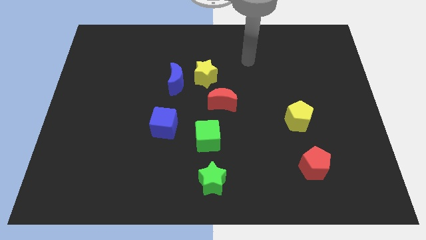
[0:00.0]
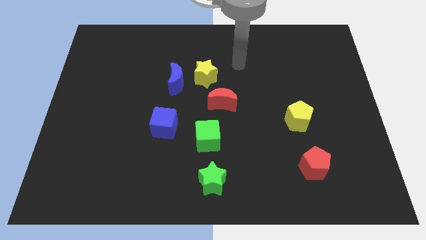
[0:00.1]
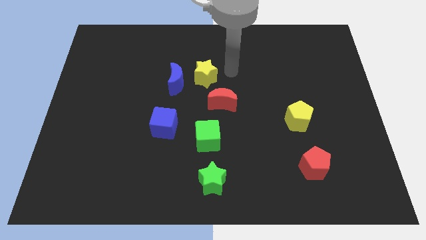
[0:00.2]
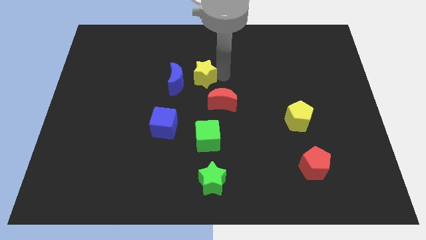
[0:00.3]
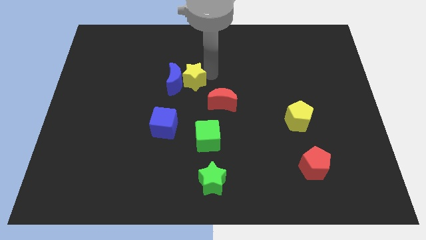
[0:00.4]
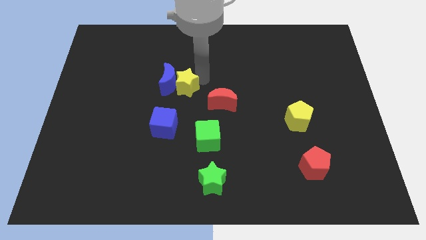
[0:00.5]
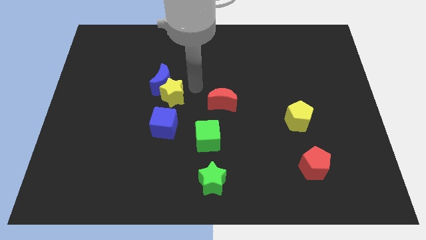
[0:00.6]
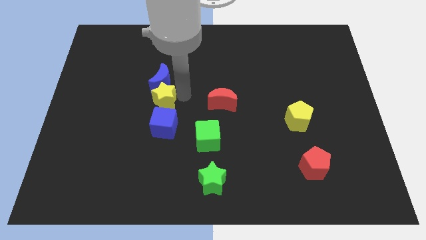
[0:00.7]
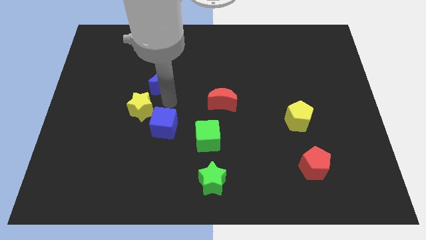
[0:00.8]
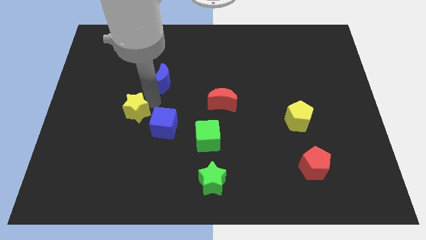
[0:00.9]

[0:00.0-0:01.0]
move the blue moon away from the yellow star

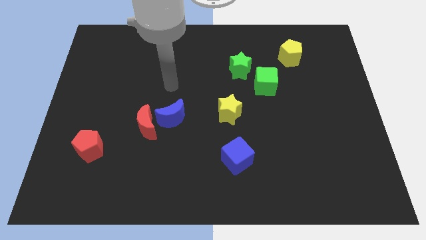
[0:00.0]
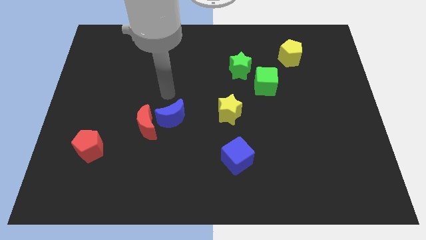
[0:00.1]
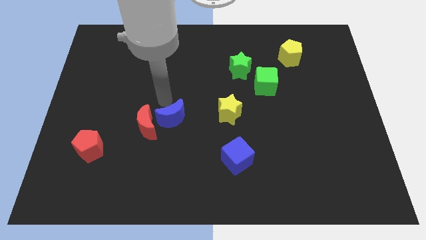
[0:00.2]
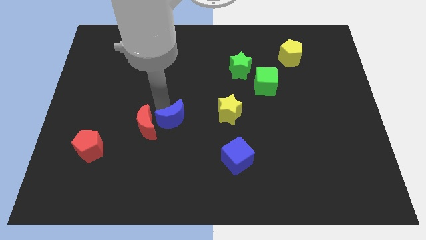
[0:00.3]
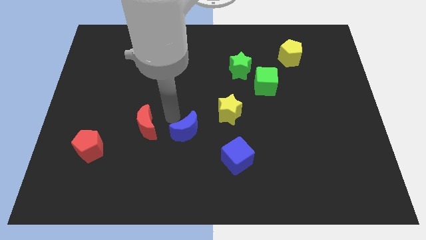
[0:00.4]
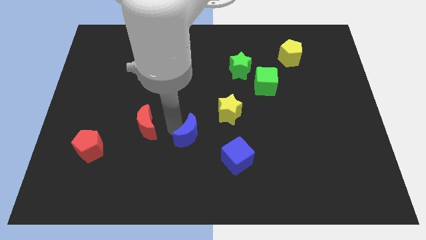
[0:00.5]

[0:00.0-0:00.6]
pull the red moon apart from the blue moon

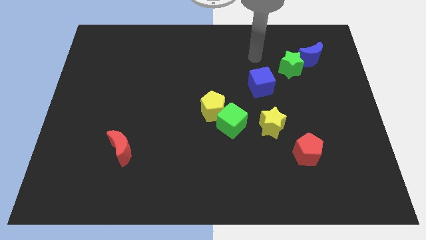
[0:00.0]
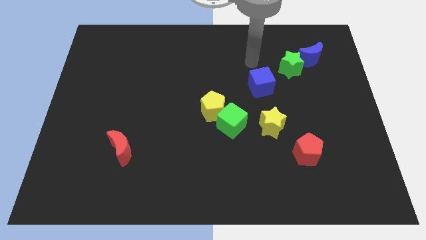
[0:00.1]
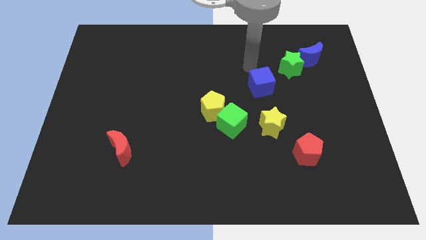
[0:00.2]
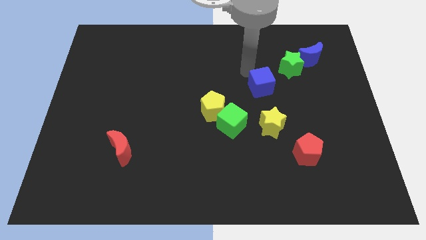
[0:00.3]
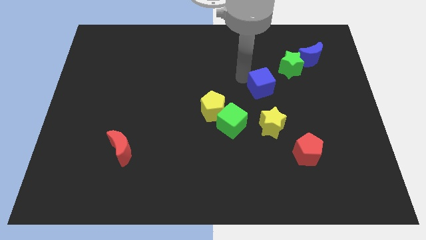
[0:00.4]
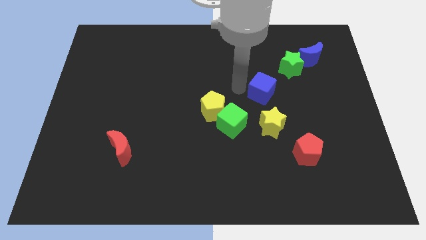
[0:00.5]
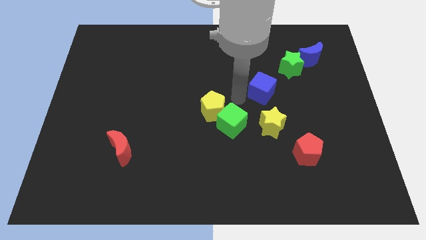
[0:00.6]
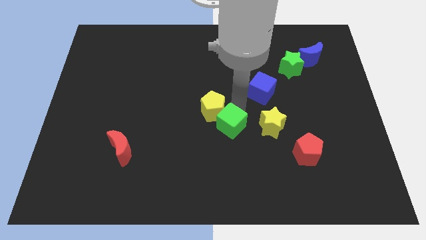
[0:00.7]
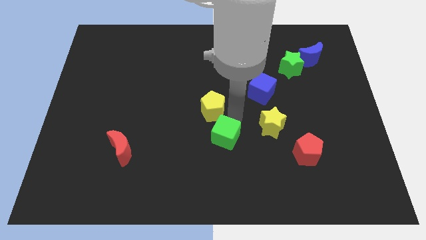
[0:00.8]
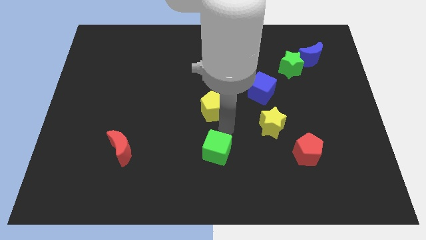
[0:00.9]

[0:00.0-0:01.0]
pull the yellow pentagon apart from the green cube

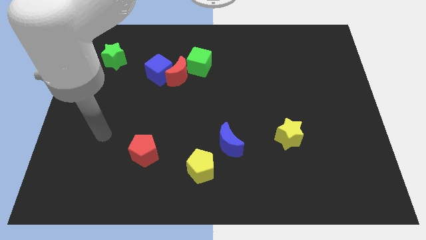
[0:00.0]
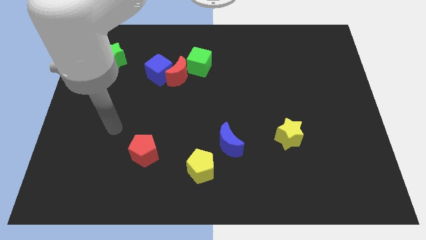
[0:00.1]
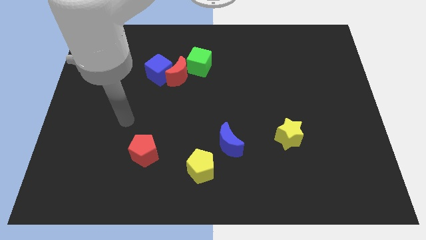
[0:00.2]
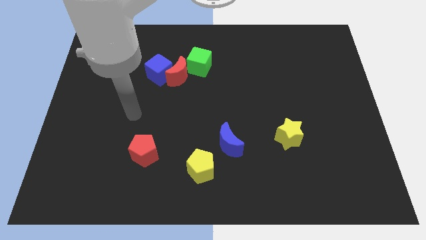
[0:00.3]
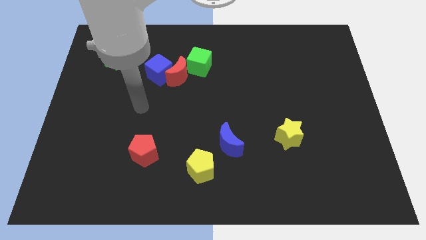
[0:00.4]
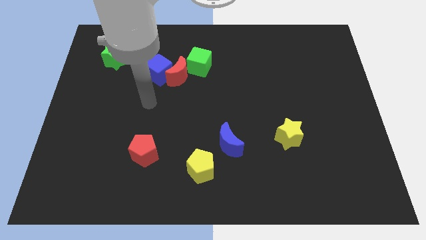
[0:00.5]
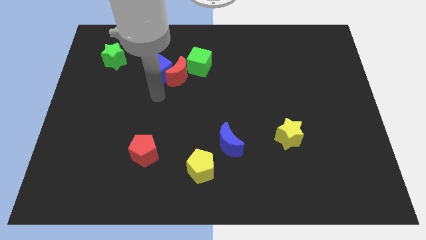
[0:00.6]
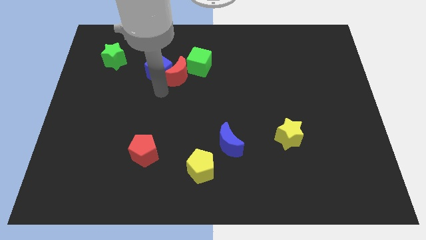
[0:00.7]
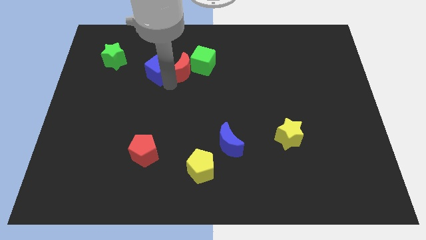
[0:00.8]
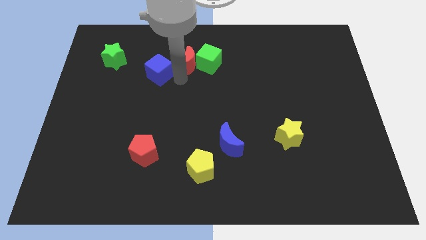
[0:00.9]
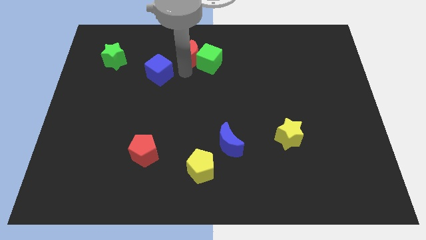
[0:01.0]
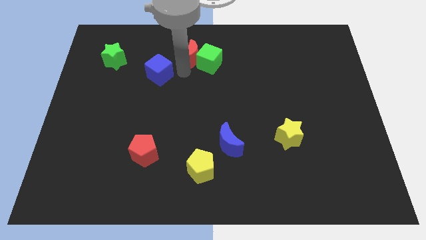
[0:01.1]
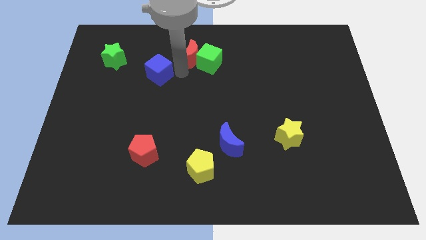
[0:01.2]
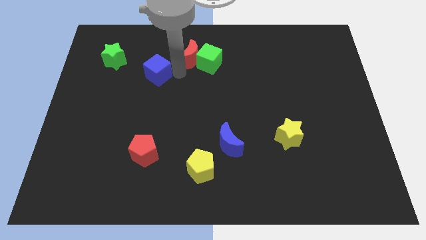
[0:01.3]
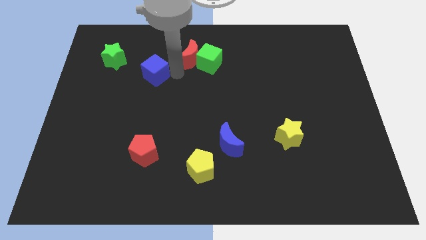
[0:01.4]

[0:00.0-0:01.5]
separate the blue cube from the red moon

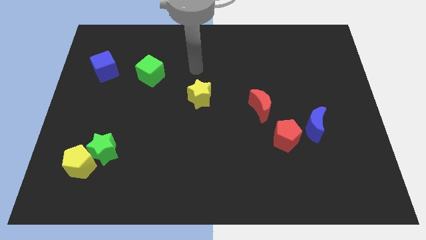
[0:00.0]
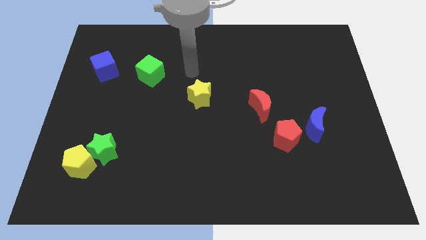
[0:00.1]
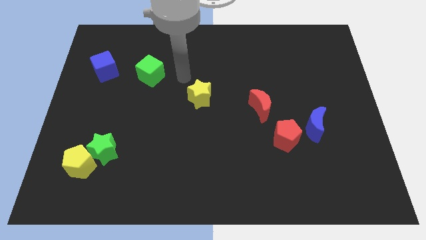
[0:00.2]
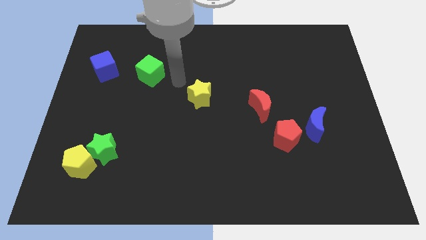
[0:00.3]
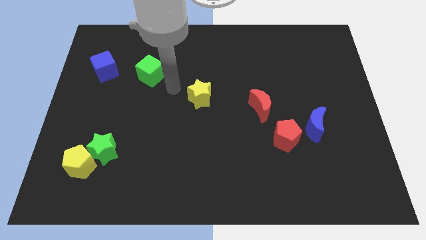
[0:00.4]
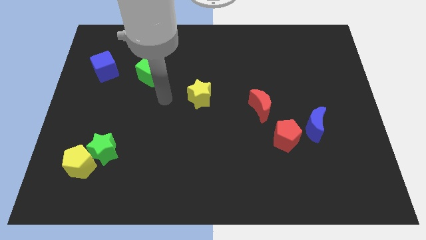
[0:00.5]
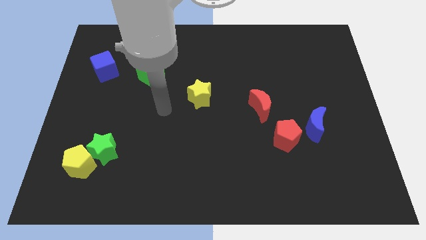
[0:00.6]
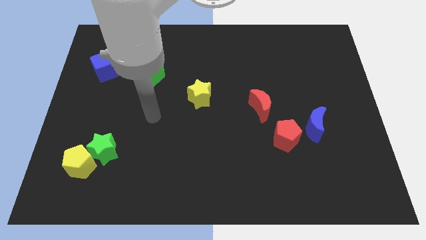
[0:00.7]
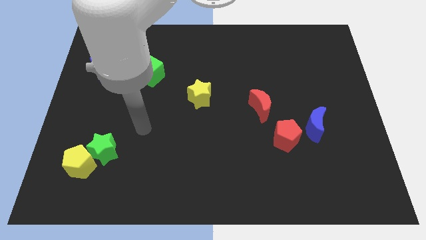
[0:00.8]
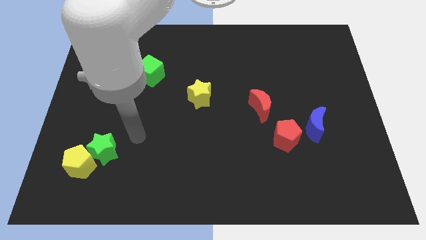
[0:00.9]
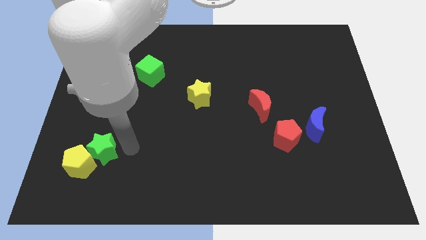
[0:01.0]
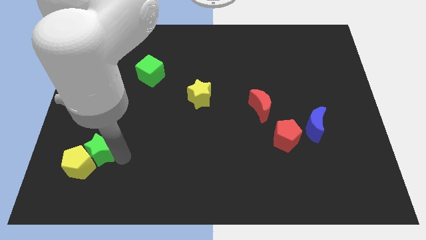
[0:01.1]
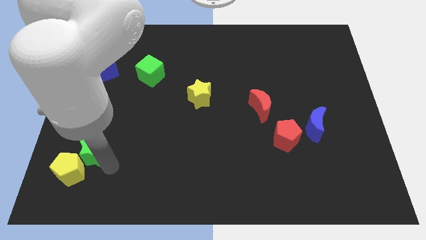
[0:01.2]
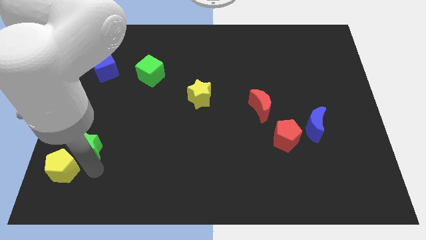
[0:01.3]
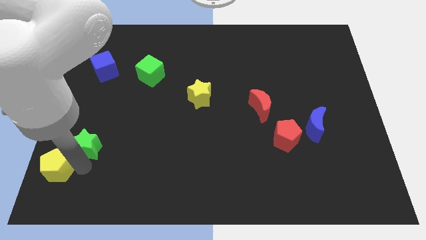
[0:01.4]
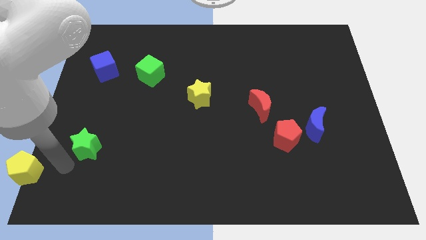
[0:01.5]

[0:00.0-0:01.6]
pull the green star apart from the yellow pentagon

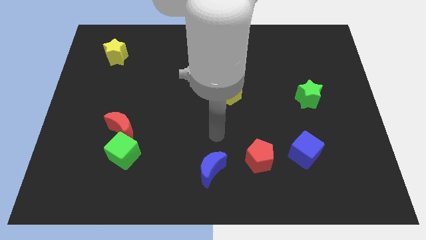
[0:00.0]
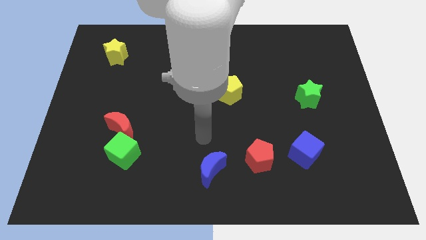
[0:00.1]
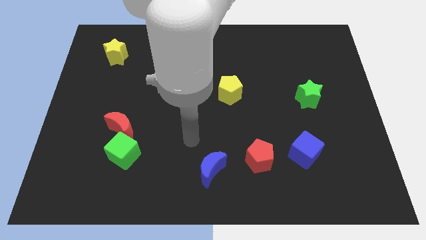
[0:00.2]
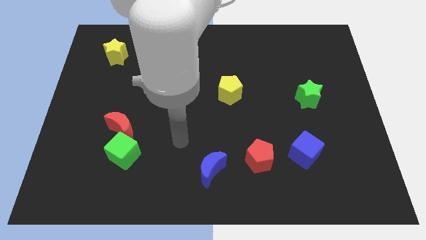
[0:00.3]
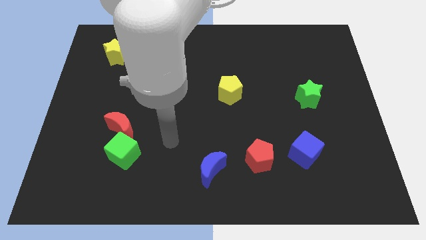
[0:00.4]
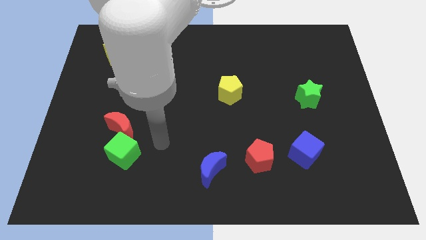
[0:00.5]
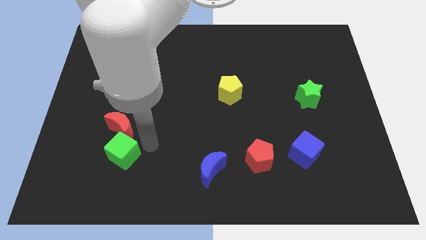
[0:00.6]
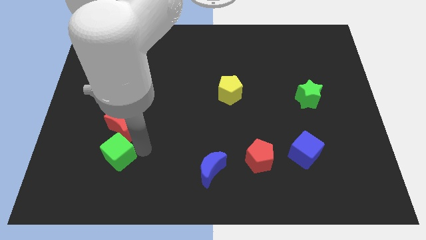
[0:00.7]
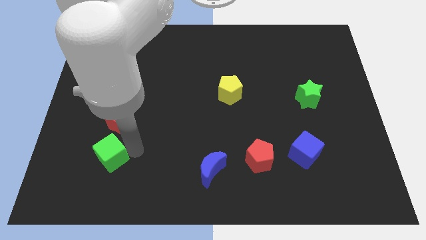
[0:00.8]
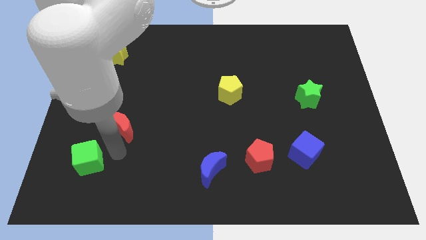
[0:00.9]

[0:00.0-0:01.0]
pull the red moon apart from the green cube

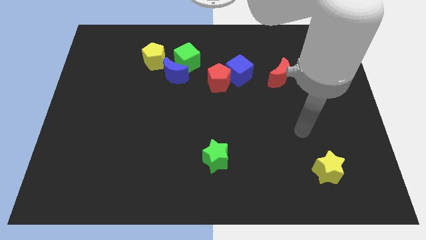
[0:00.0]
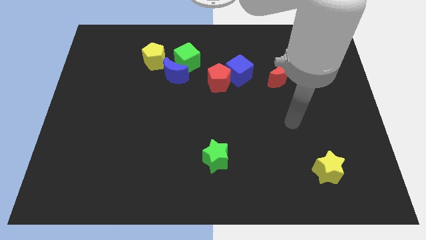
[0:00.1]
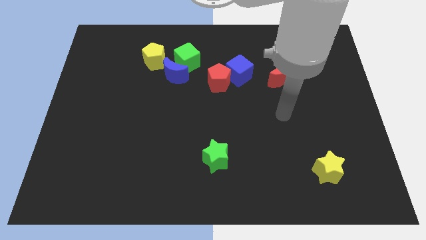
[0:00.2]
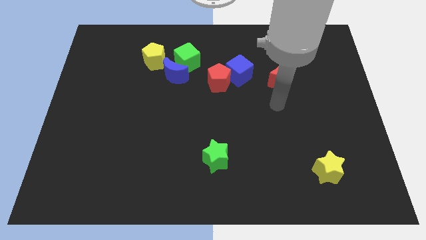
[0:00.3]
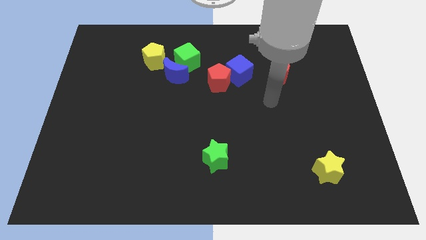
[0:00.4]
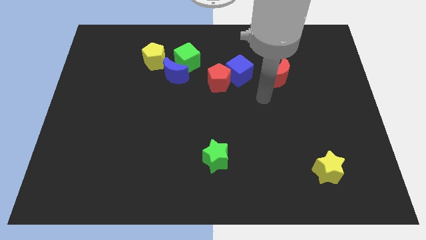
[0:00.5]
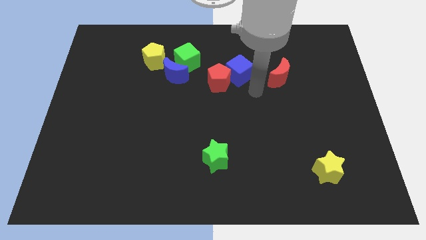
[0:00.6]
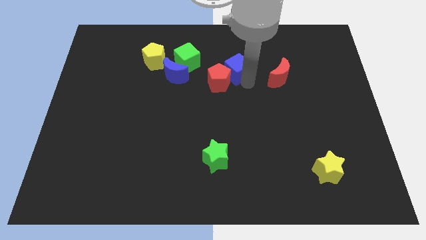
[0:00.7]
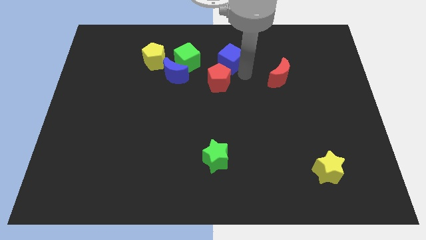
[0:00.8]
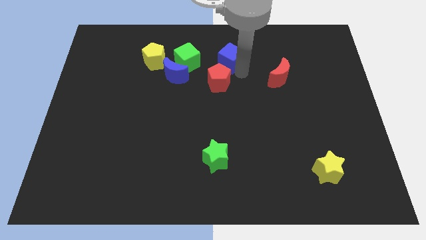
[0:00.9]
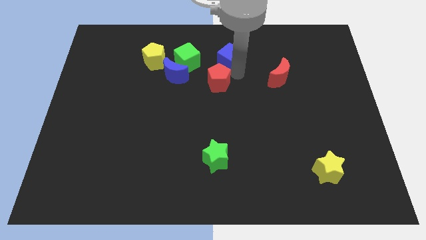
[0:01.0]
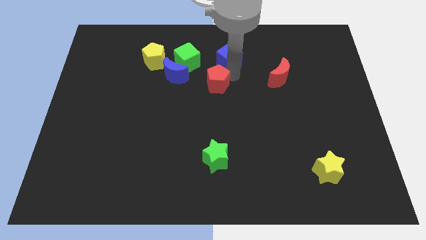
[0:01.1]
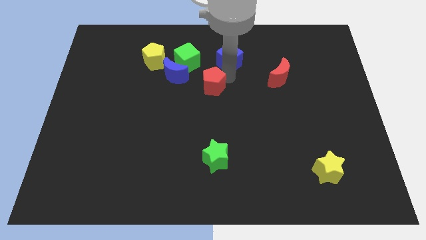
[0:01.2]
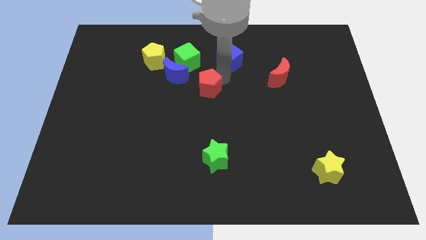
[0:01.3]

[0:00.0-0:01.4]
pull the red pentagon apart from the blue cube

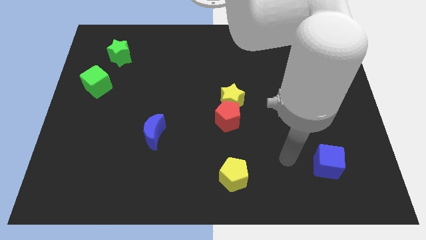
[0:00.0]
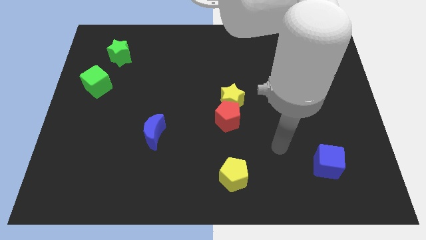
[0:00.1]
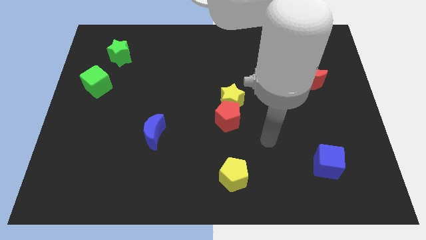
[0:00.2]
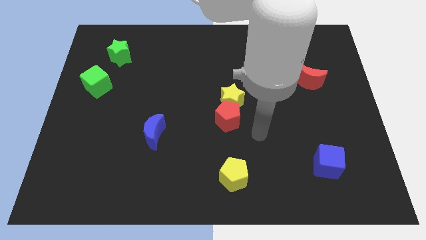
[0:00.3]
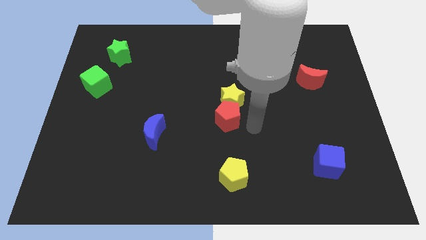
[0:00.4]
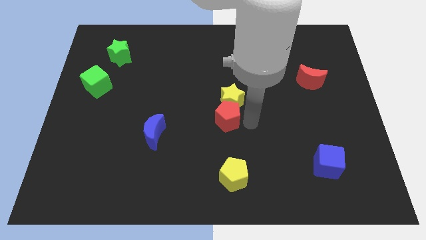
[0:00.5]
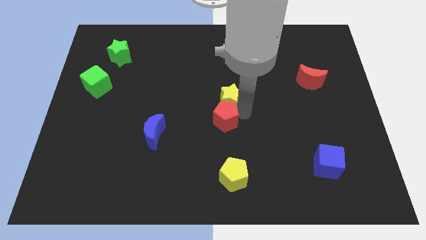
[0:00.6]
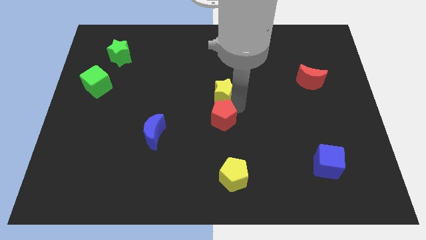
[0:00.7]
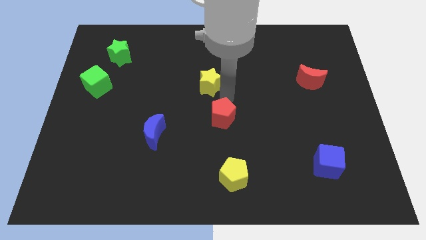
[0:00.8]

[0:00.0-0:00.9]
move the red pentagon away from the yellow star

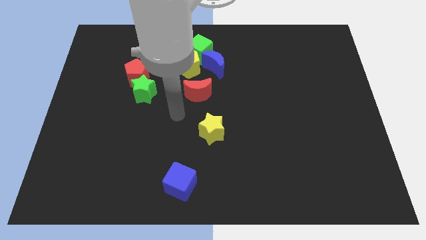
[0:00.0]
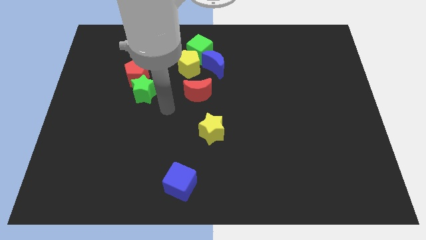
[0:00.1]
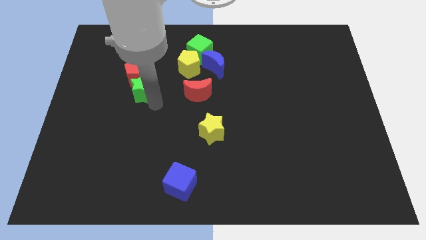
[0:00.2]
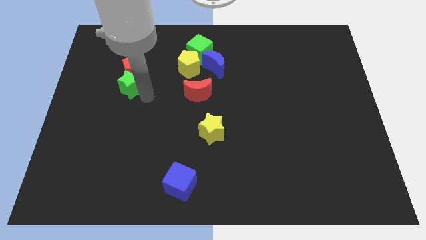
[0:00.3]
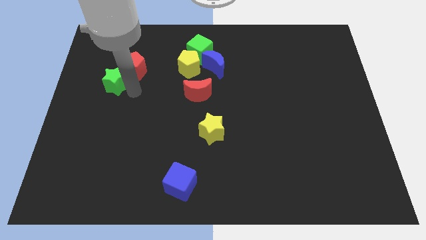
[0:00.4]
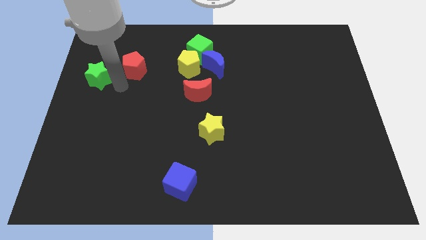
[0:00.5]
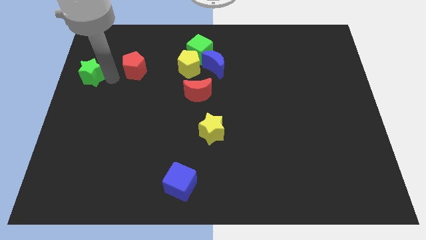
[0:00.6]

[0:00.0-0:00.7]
separate the red pentagon from the green star
